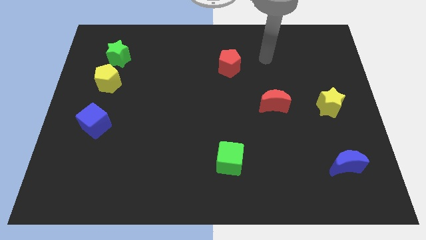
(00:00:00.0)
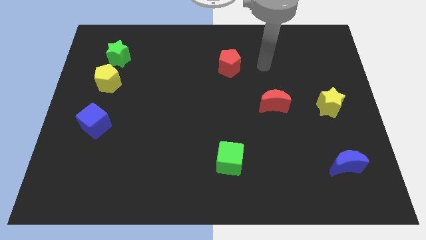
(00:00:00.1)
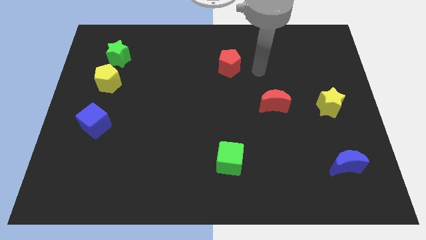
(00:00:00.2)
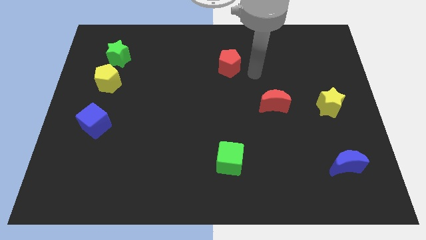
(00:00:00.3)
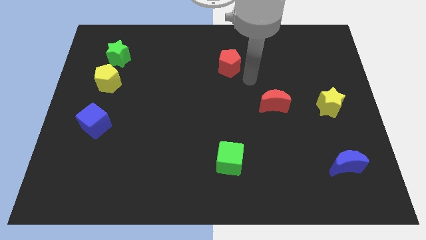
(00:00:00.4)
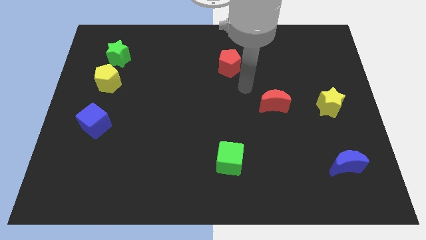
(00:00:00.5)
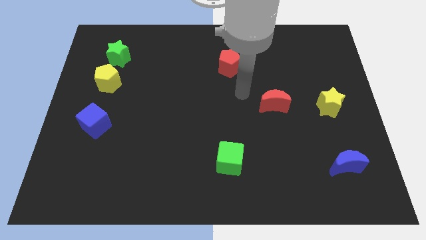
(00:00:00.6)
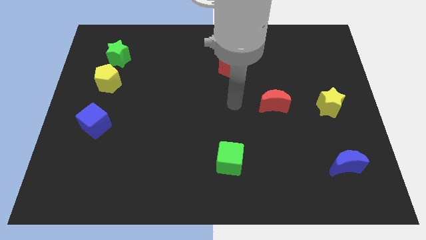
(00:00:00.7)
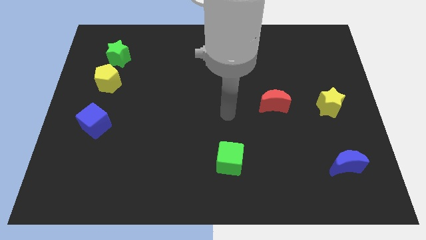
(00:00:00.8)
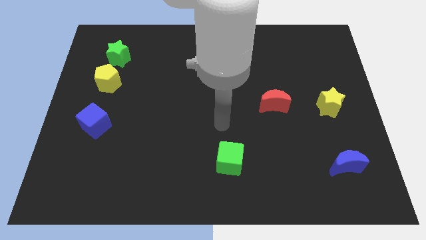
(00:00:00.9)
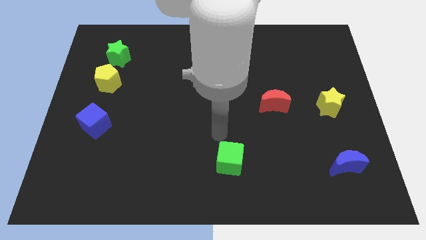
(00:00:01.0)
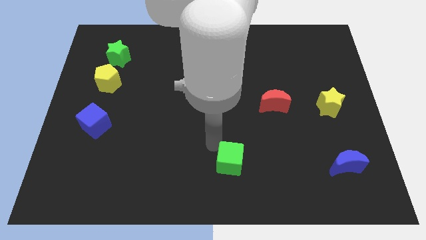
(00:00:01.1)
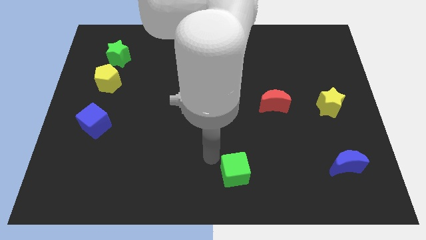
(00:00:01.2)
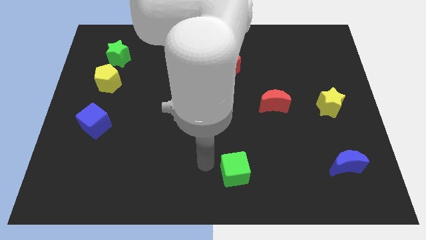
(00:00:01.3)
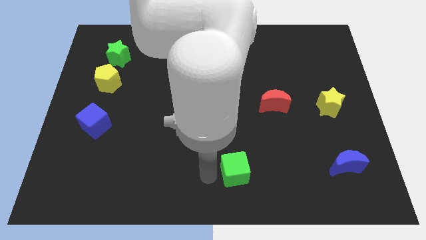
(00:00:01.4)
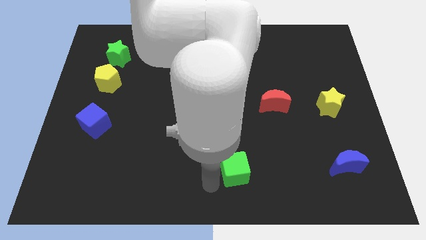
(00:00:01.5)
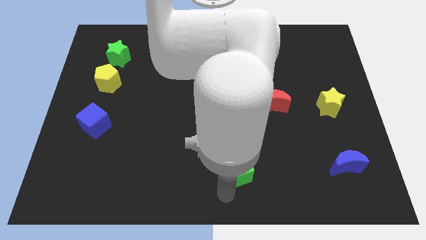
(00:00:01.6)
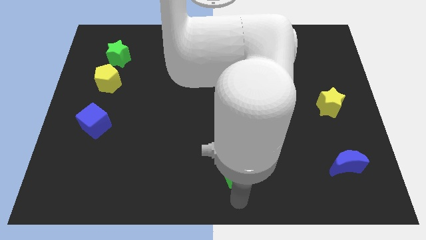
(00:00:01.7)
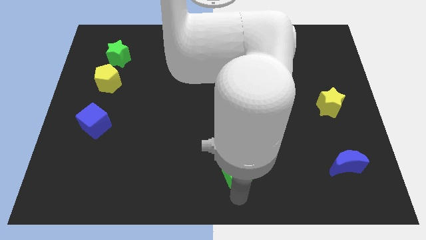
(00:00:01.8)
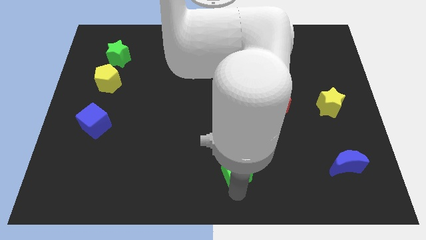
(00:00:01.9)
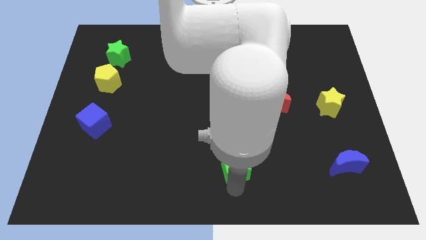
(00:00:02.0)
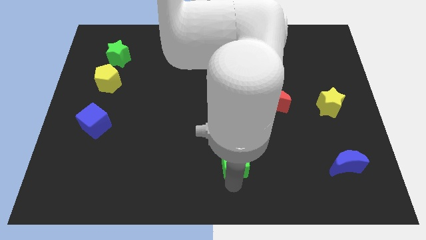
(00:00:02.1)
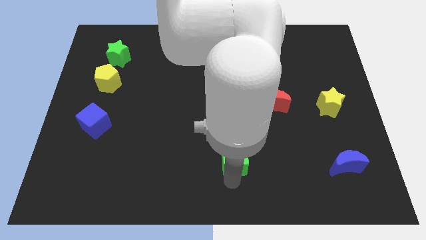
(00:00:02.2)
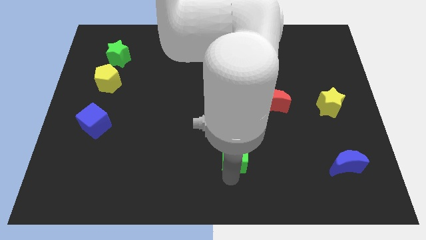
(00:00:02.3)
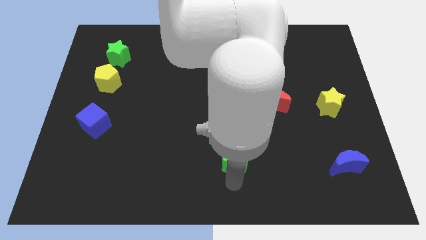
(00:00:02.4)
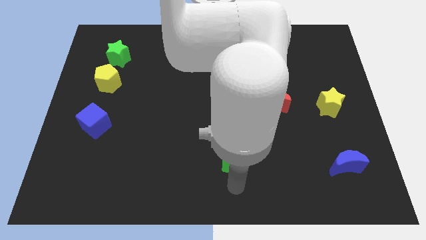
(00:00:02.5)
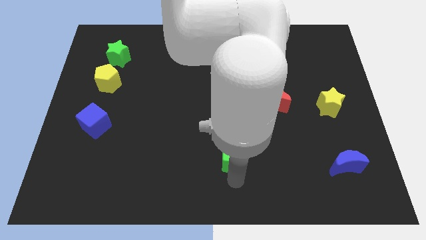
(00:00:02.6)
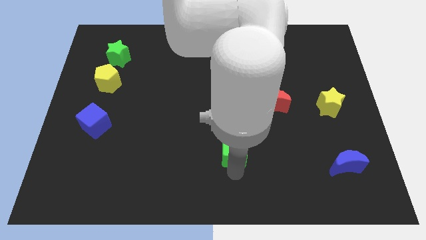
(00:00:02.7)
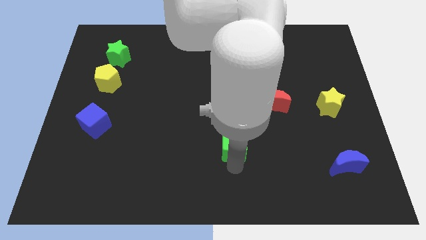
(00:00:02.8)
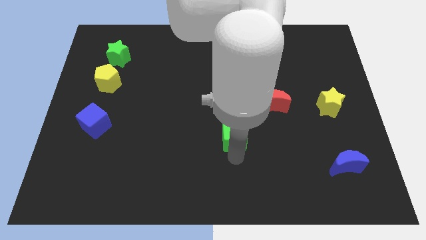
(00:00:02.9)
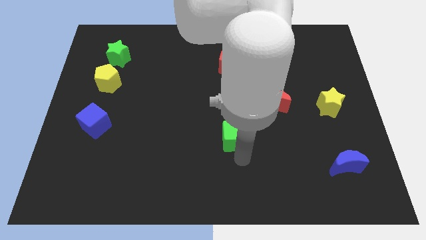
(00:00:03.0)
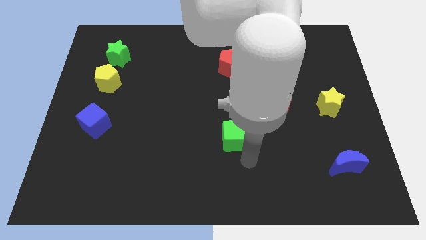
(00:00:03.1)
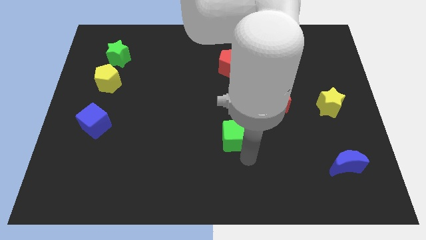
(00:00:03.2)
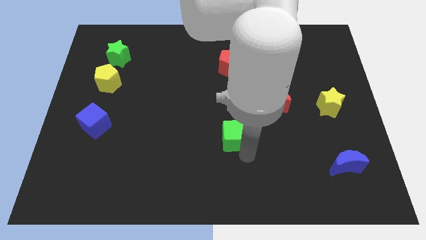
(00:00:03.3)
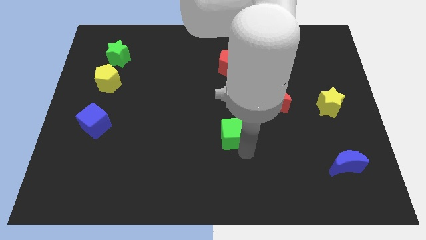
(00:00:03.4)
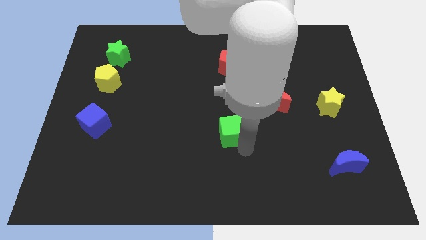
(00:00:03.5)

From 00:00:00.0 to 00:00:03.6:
slide the green cube upwards somewhat

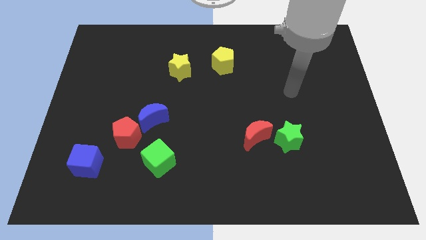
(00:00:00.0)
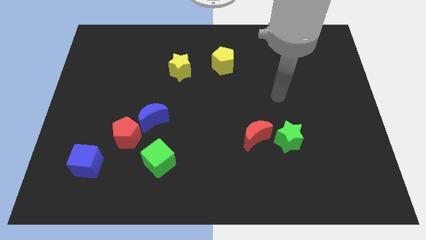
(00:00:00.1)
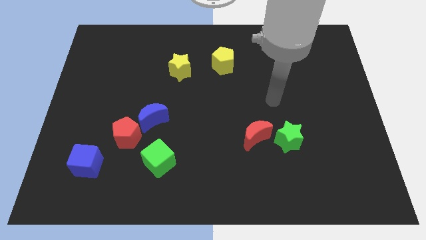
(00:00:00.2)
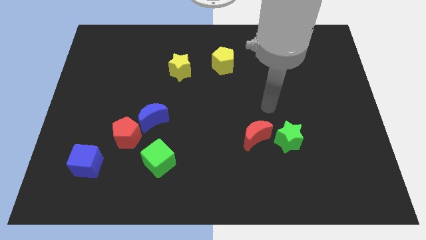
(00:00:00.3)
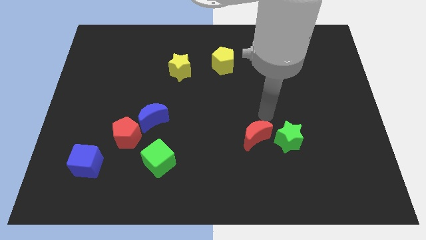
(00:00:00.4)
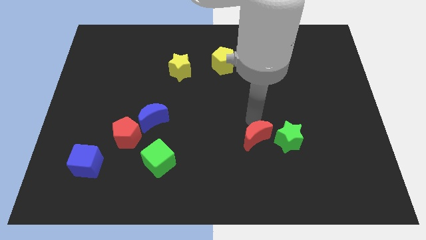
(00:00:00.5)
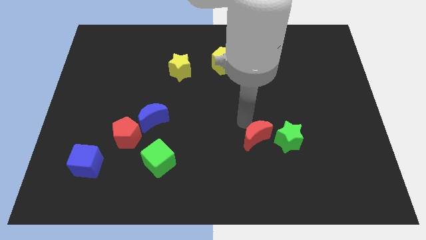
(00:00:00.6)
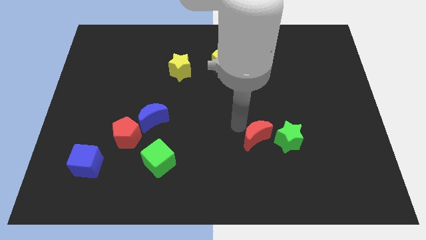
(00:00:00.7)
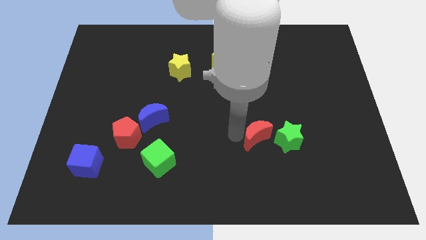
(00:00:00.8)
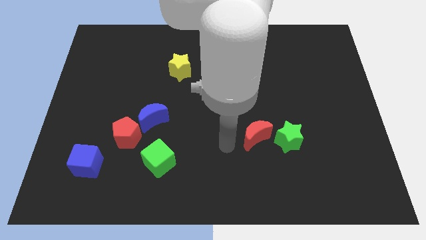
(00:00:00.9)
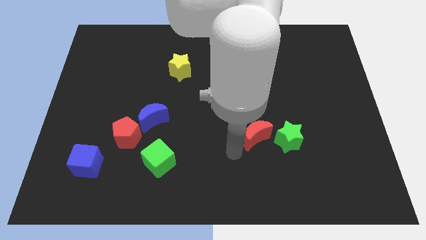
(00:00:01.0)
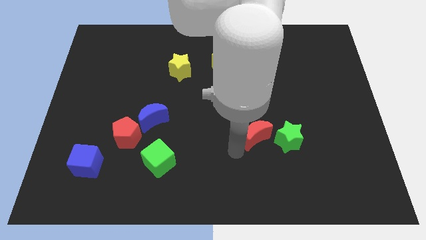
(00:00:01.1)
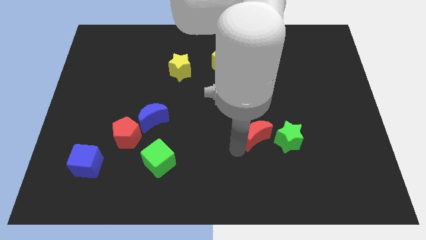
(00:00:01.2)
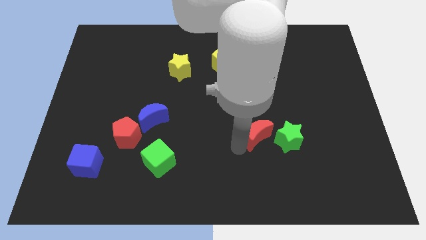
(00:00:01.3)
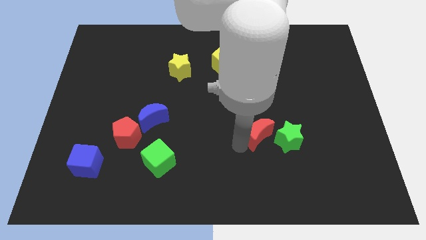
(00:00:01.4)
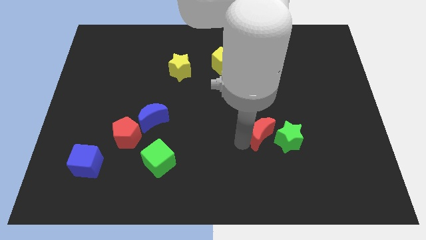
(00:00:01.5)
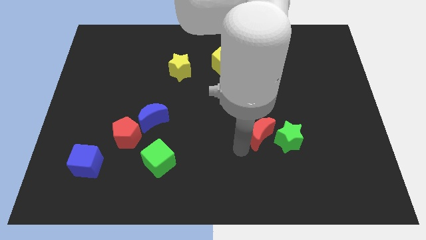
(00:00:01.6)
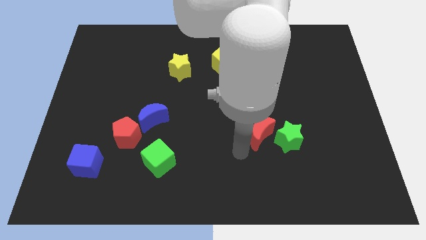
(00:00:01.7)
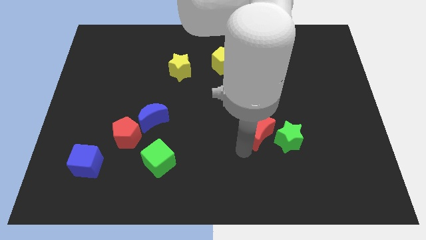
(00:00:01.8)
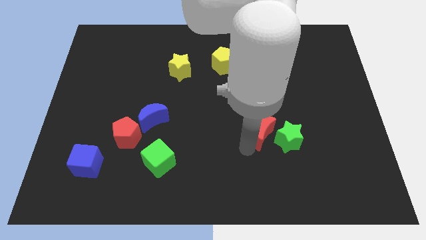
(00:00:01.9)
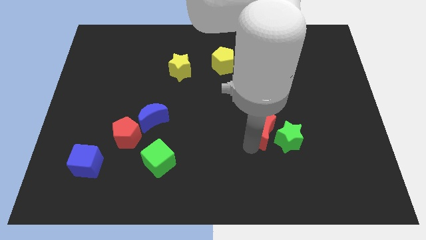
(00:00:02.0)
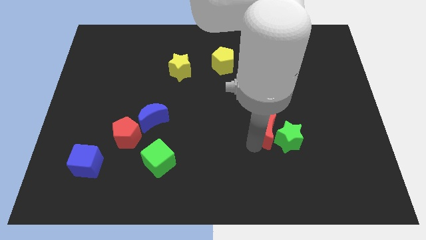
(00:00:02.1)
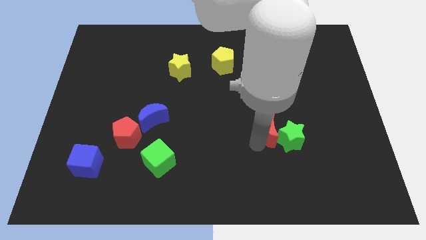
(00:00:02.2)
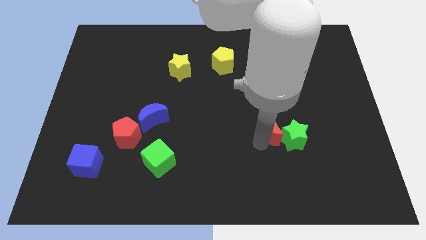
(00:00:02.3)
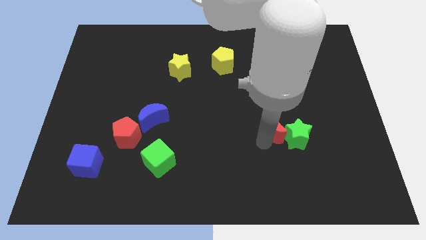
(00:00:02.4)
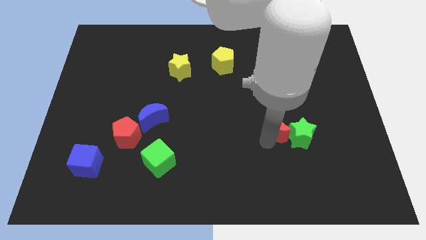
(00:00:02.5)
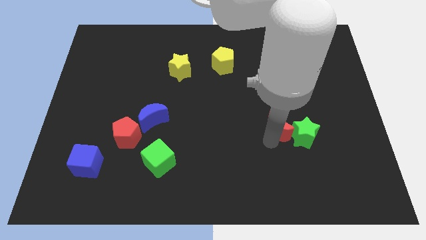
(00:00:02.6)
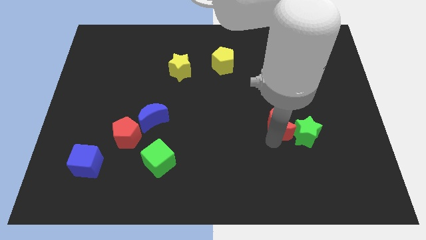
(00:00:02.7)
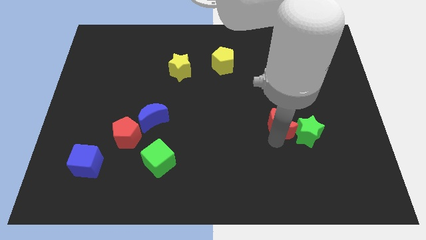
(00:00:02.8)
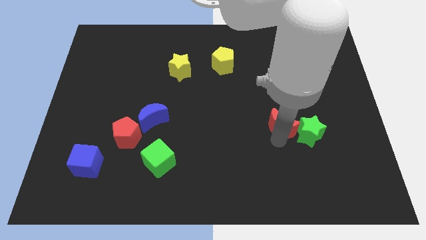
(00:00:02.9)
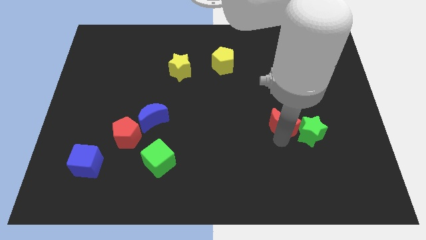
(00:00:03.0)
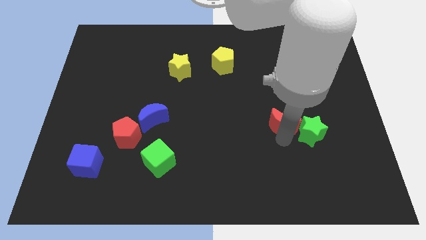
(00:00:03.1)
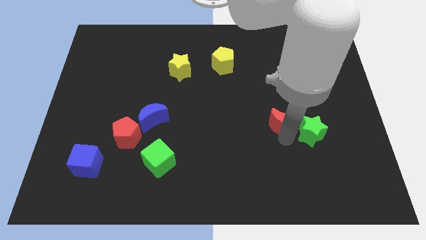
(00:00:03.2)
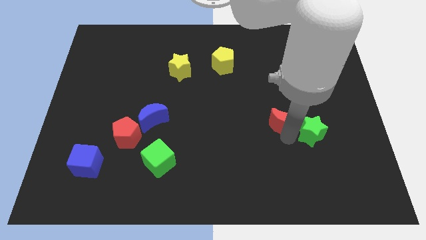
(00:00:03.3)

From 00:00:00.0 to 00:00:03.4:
slide the red moon a little bit upwards and then right

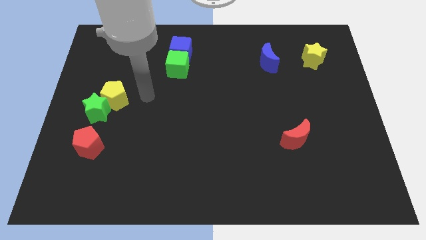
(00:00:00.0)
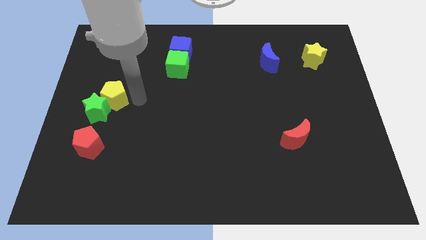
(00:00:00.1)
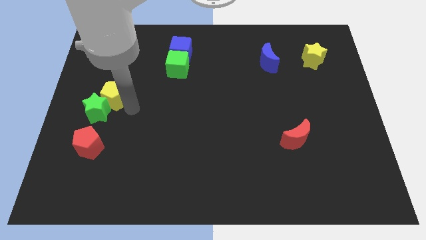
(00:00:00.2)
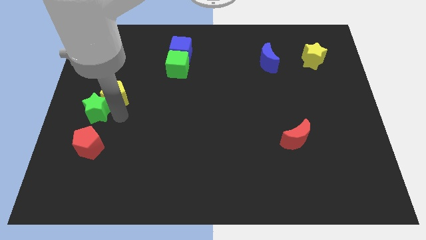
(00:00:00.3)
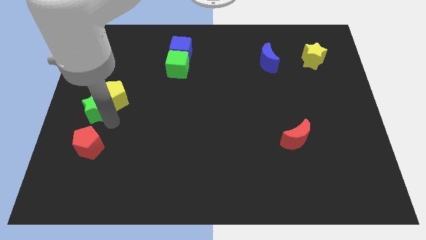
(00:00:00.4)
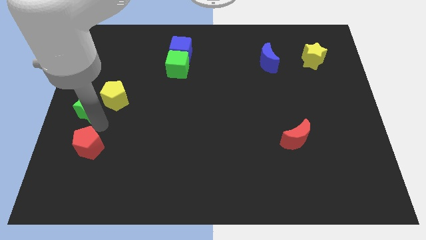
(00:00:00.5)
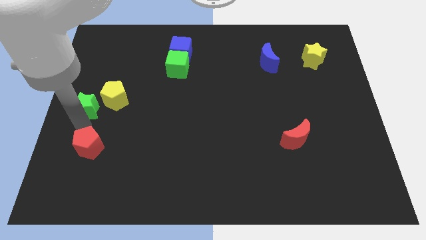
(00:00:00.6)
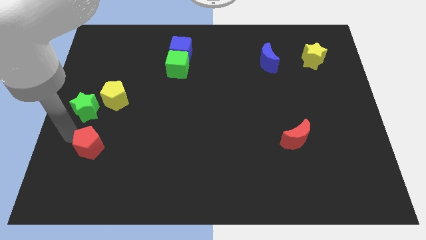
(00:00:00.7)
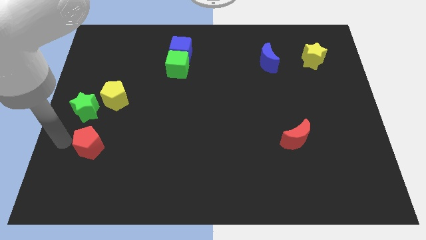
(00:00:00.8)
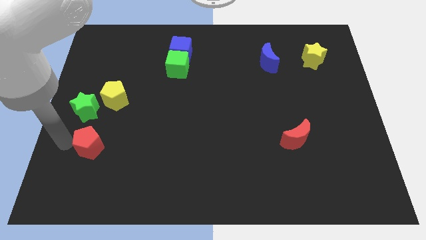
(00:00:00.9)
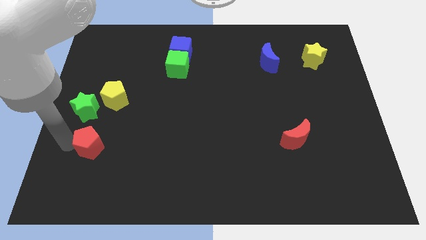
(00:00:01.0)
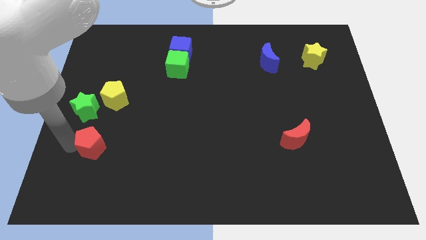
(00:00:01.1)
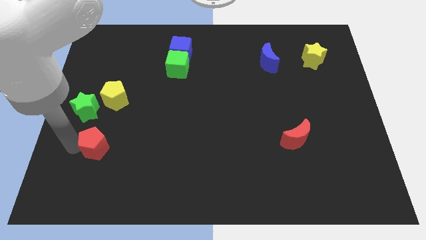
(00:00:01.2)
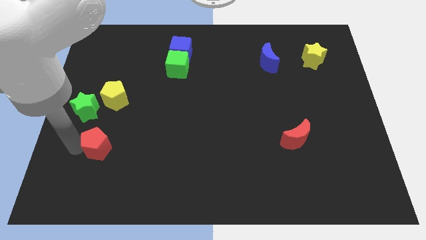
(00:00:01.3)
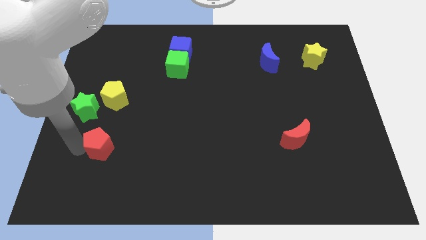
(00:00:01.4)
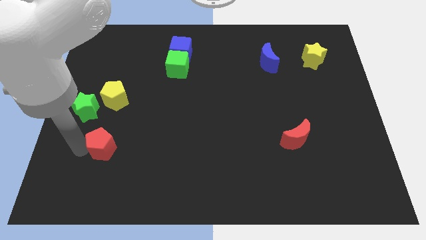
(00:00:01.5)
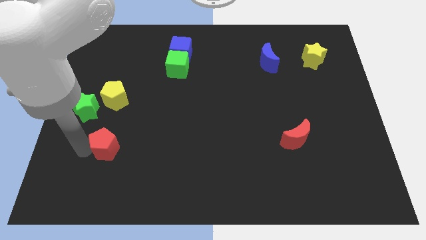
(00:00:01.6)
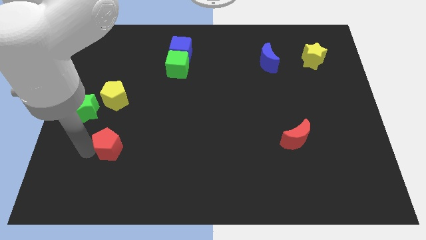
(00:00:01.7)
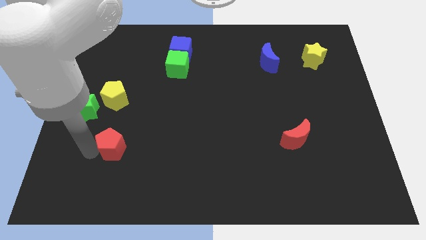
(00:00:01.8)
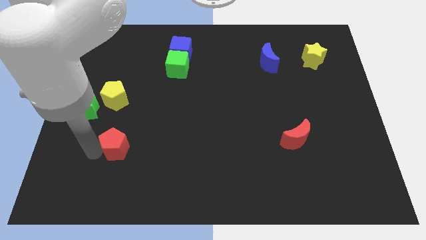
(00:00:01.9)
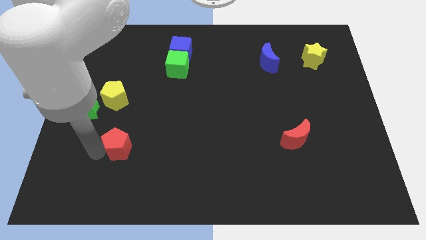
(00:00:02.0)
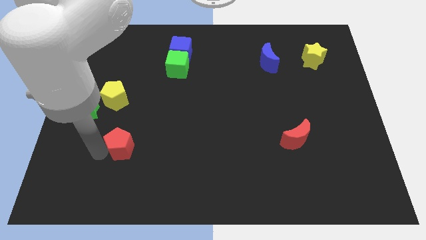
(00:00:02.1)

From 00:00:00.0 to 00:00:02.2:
push the red pentagon a little bit right
